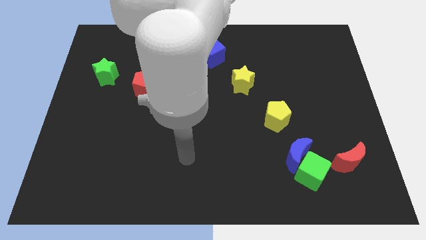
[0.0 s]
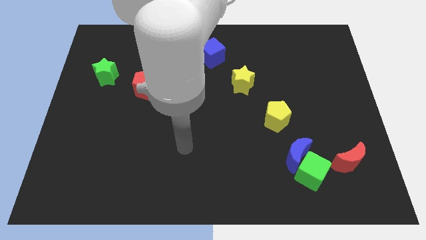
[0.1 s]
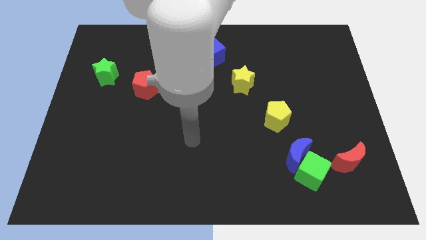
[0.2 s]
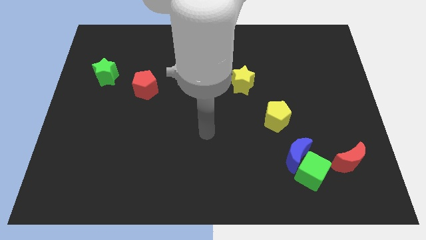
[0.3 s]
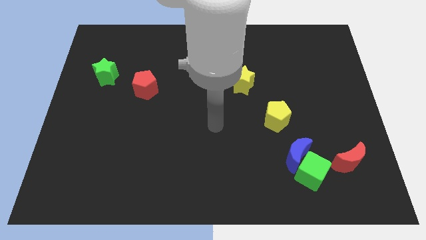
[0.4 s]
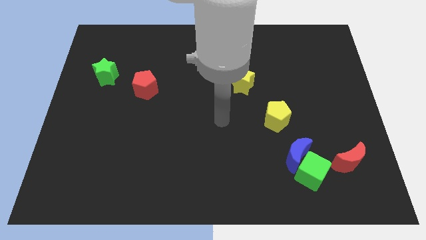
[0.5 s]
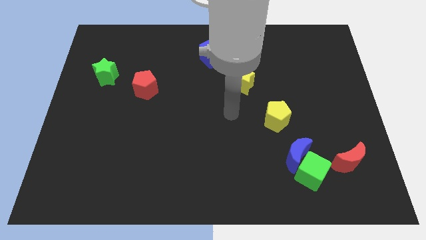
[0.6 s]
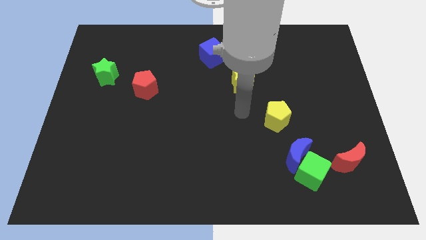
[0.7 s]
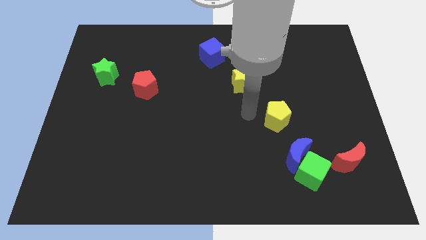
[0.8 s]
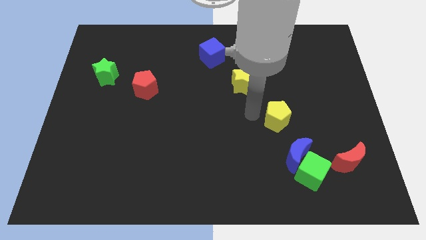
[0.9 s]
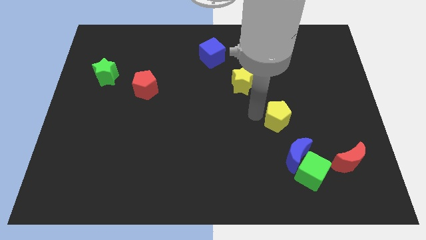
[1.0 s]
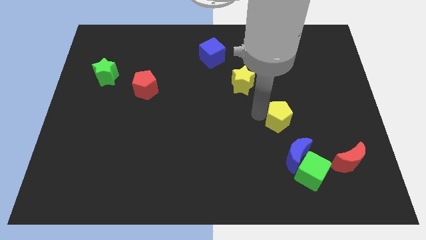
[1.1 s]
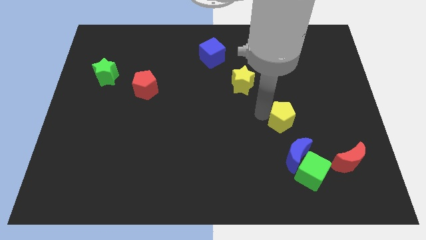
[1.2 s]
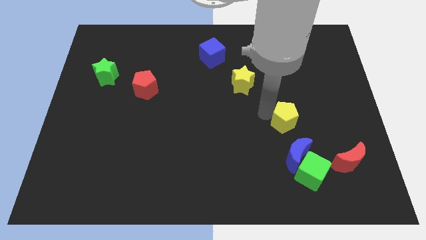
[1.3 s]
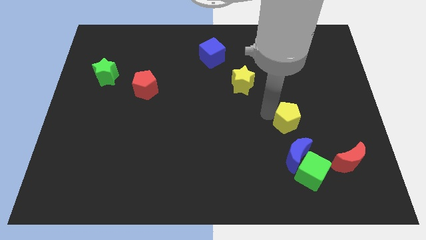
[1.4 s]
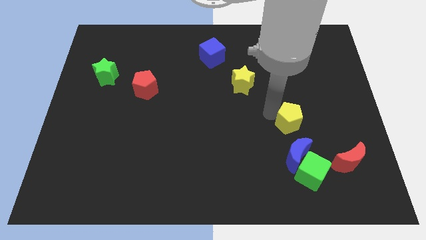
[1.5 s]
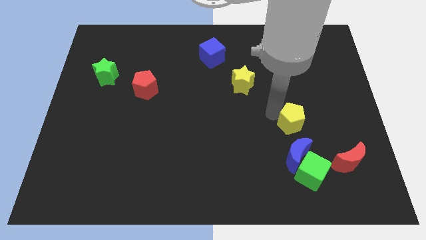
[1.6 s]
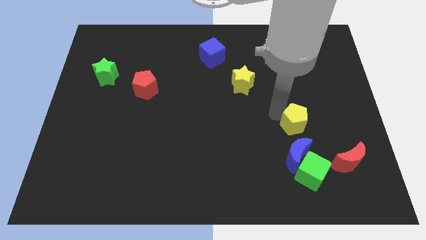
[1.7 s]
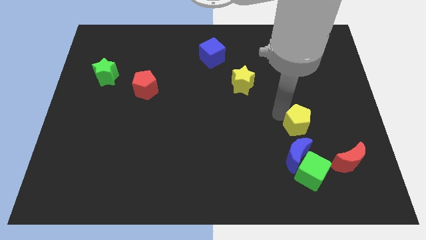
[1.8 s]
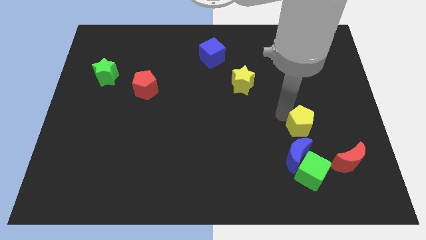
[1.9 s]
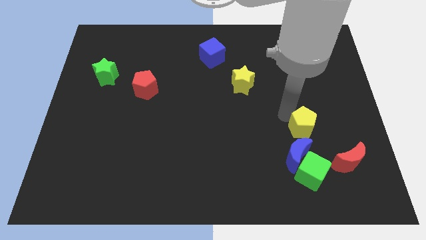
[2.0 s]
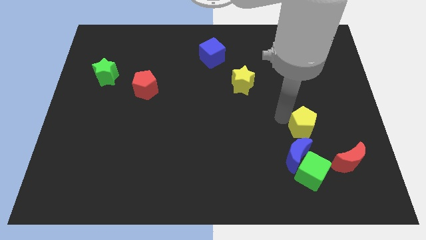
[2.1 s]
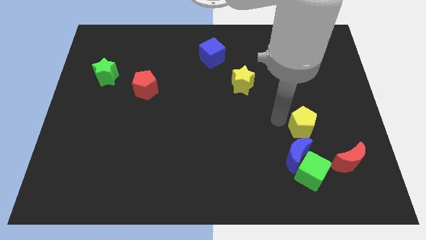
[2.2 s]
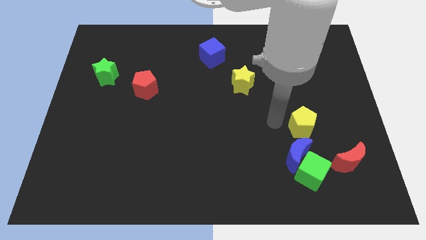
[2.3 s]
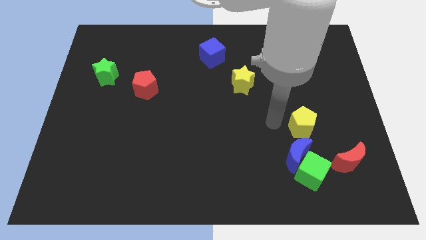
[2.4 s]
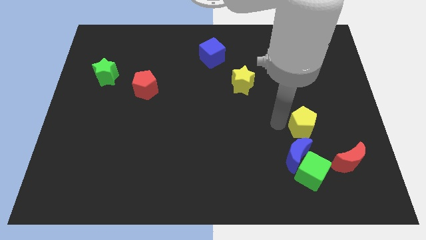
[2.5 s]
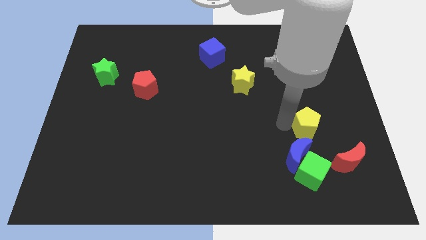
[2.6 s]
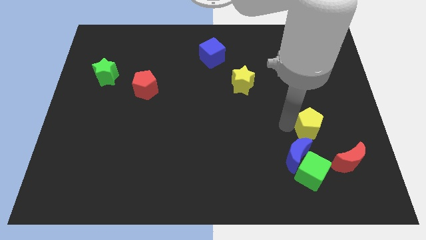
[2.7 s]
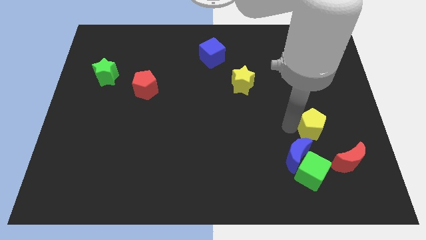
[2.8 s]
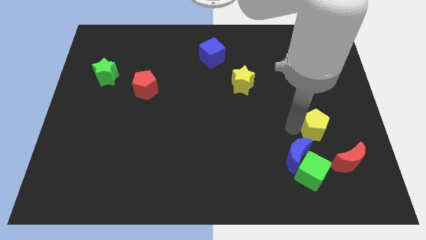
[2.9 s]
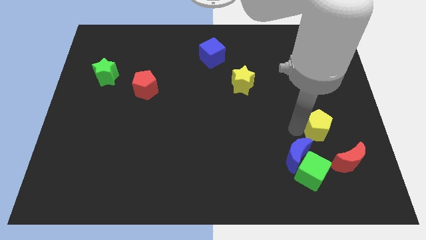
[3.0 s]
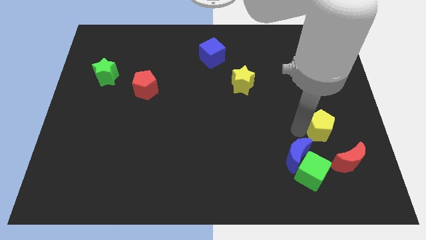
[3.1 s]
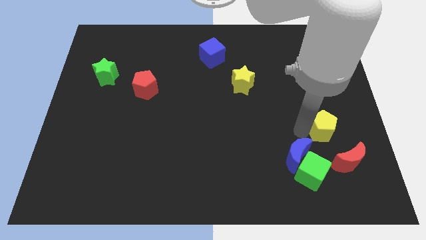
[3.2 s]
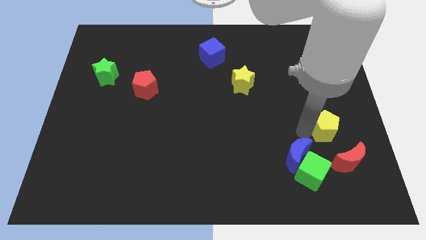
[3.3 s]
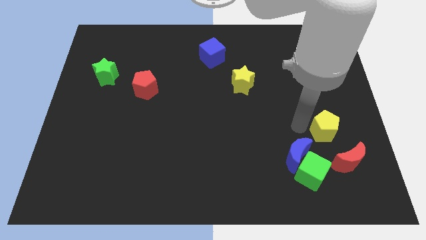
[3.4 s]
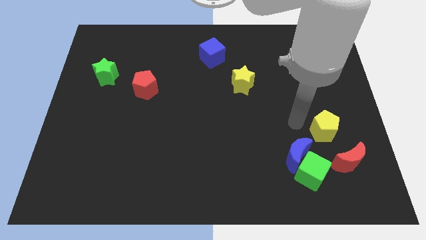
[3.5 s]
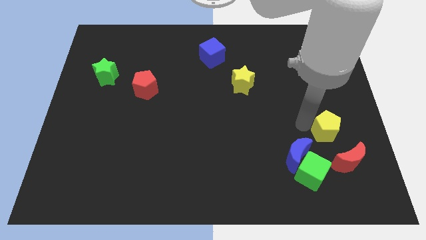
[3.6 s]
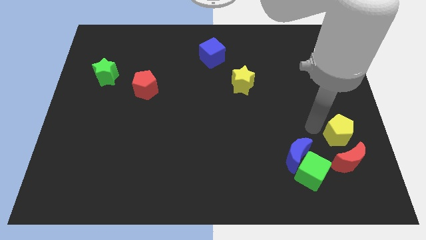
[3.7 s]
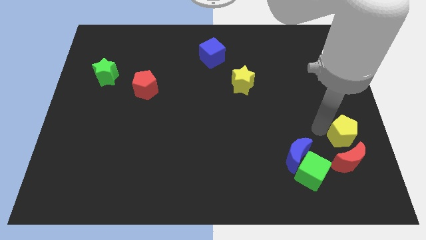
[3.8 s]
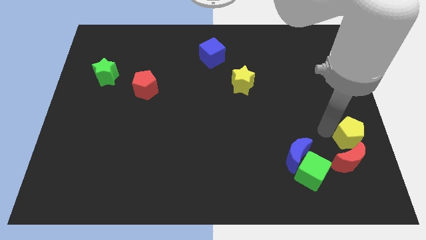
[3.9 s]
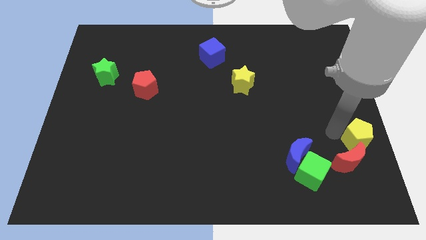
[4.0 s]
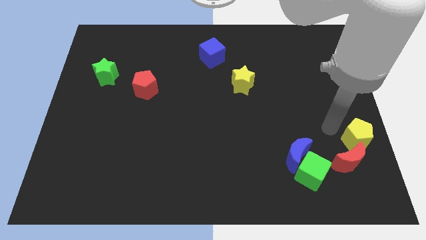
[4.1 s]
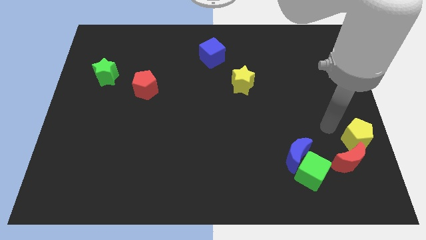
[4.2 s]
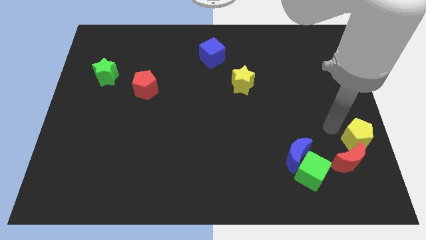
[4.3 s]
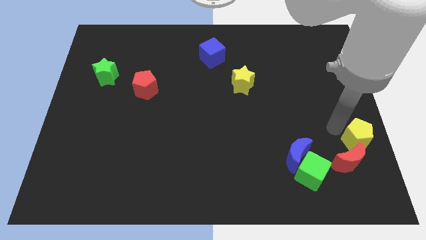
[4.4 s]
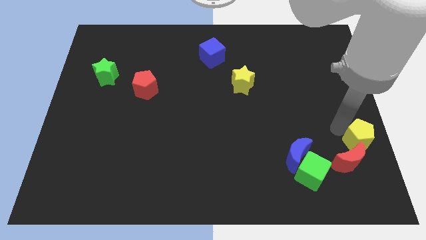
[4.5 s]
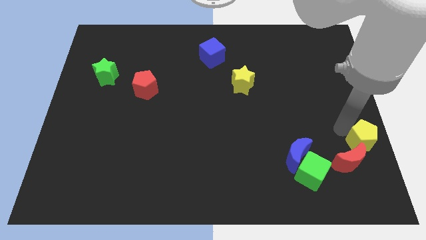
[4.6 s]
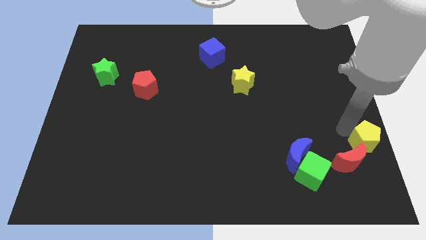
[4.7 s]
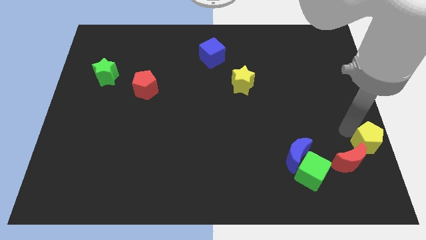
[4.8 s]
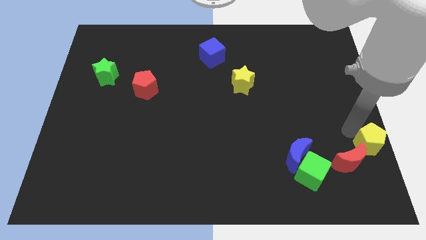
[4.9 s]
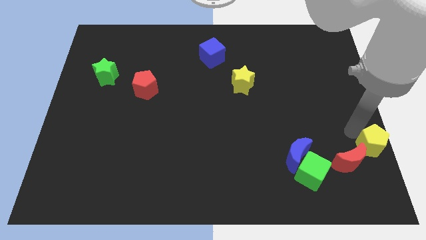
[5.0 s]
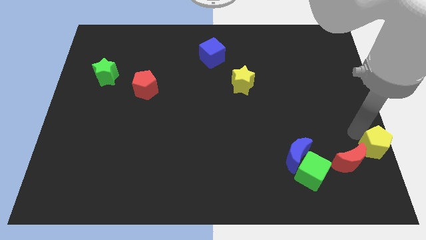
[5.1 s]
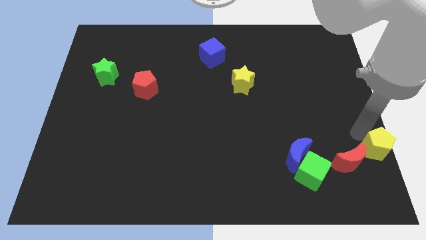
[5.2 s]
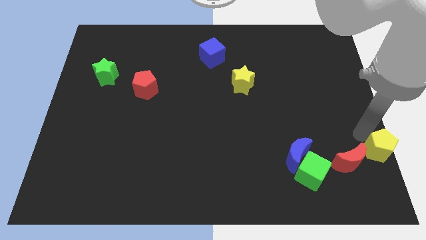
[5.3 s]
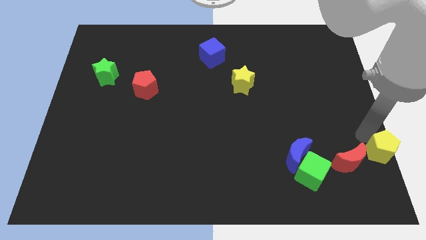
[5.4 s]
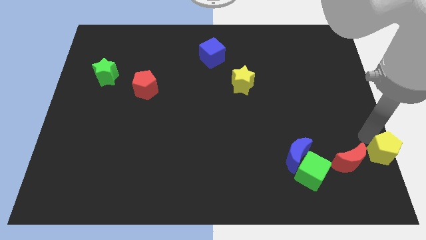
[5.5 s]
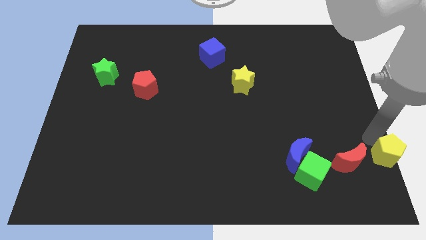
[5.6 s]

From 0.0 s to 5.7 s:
put the yellow pentagon to the bottom right corner

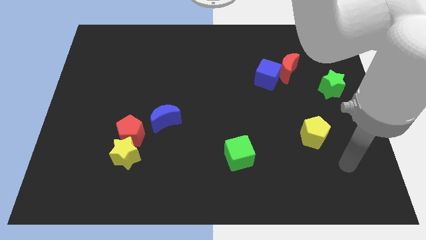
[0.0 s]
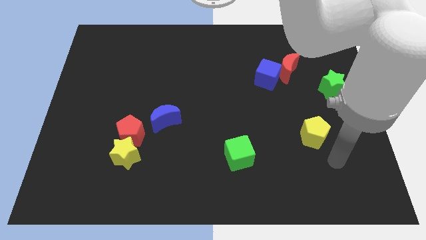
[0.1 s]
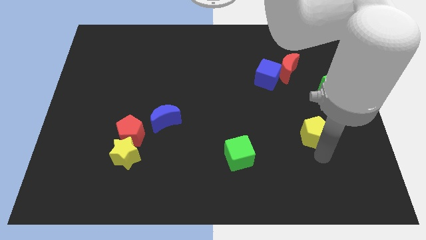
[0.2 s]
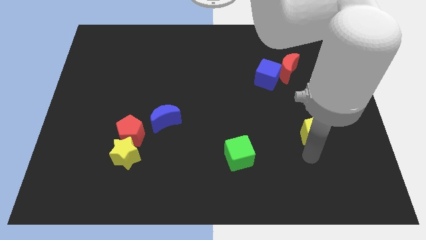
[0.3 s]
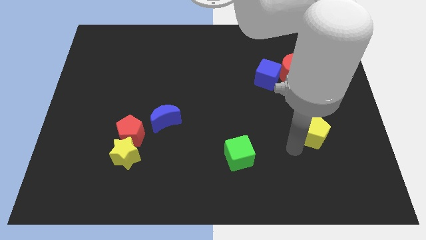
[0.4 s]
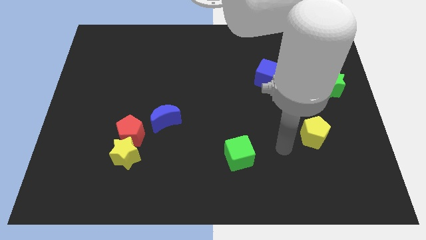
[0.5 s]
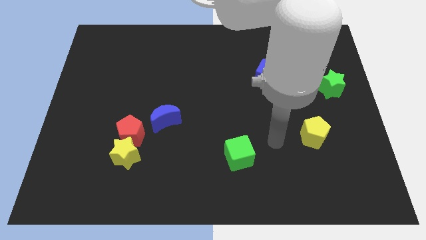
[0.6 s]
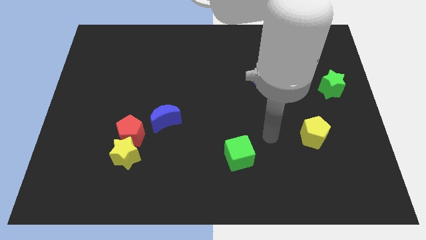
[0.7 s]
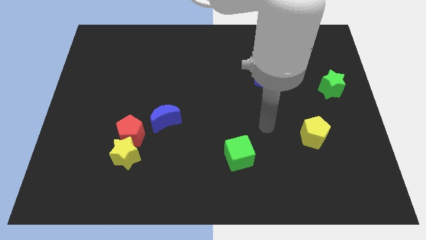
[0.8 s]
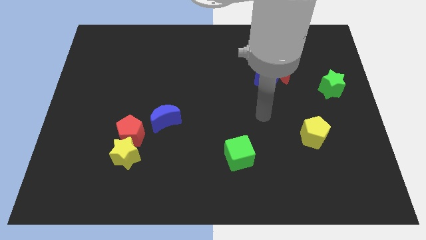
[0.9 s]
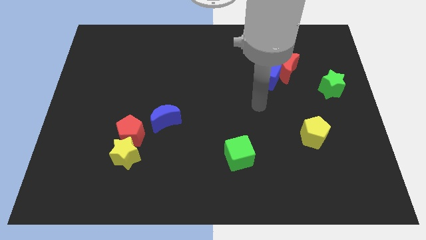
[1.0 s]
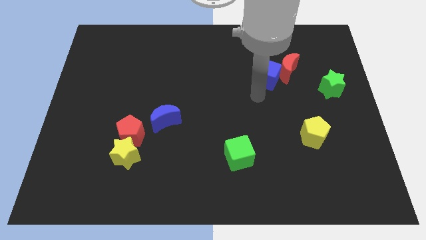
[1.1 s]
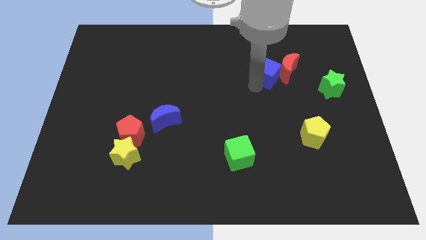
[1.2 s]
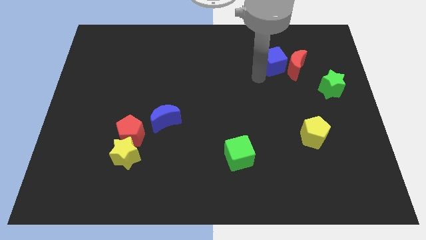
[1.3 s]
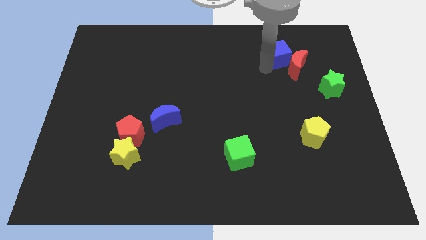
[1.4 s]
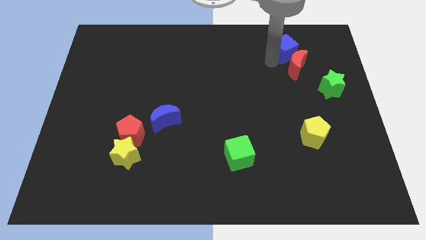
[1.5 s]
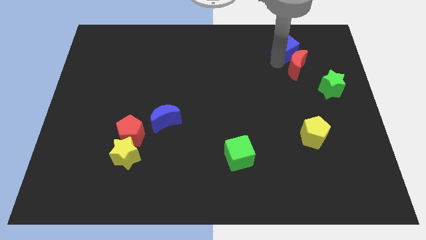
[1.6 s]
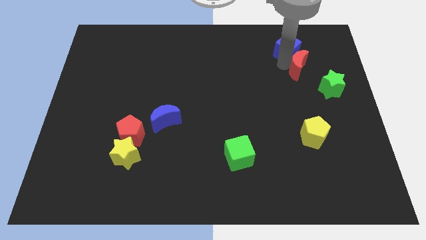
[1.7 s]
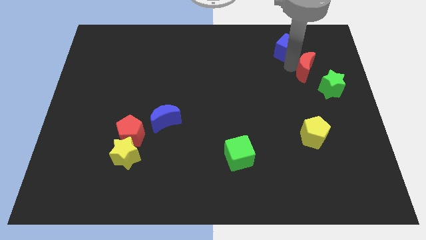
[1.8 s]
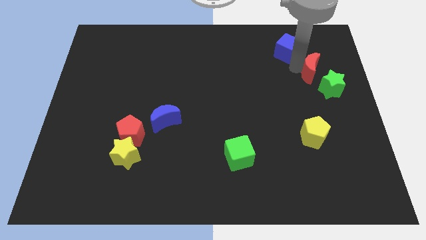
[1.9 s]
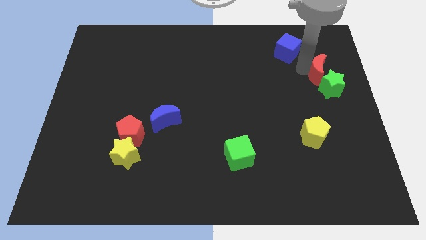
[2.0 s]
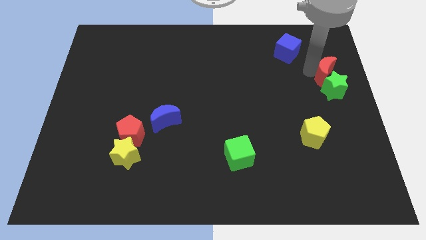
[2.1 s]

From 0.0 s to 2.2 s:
put the red moon to the right side of the board
